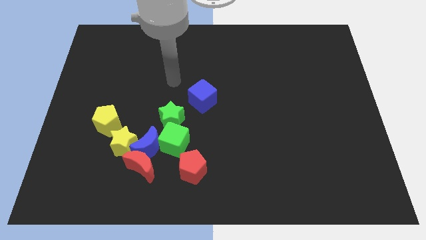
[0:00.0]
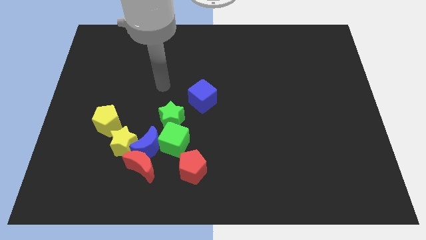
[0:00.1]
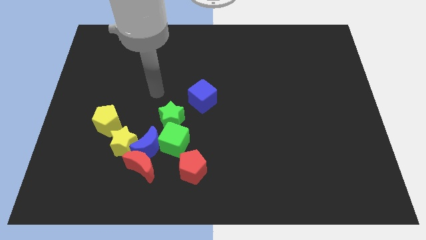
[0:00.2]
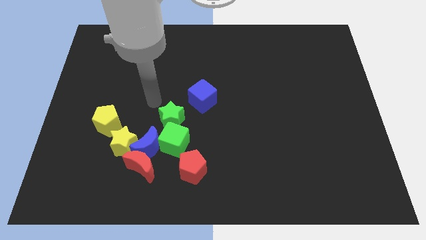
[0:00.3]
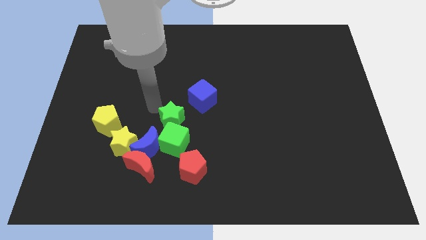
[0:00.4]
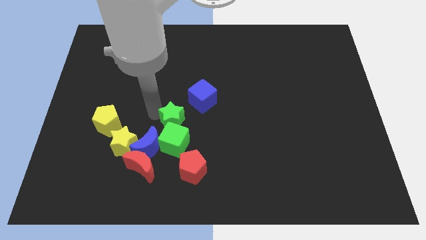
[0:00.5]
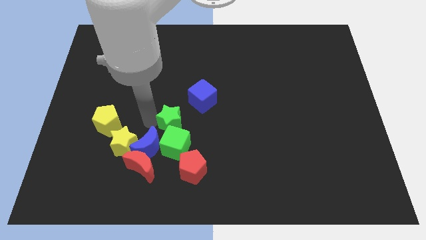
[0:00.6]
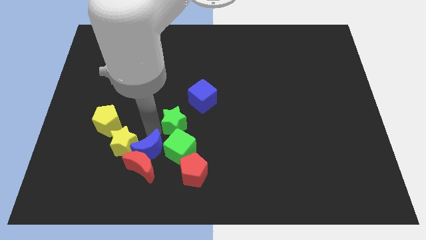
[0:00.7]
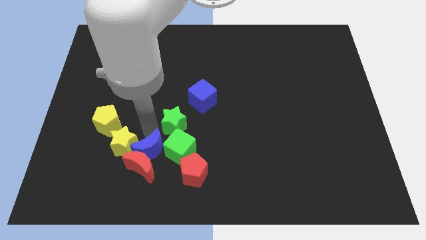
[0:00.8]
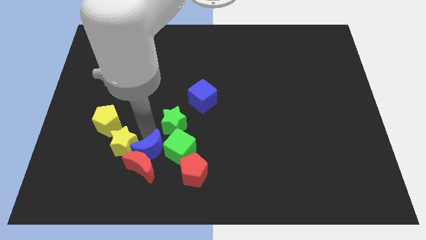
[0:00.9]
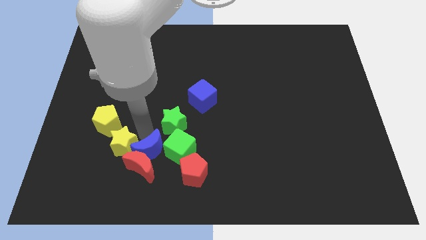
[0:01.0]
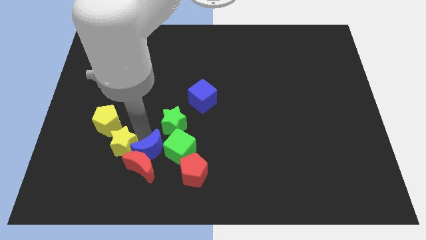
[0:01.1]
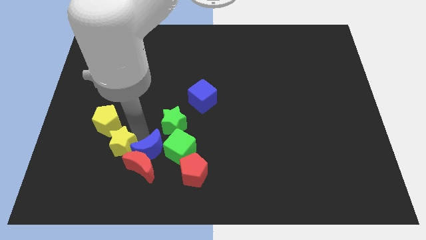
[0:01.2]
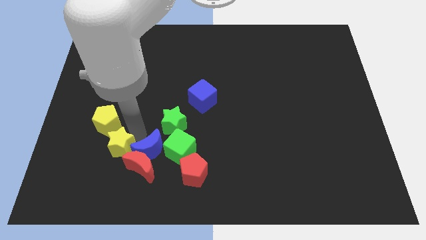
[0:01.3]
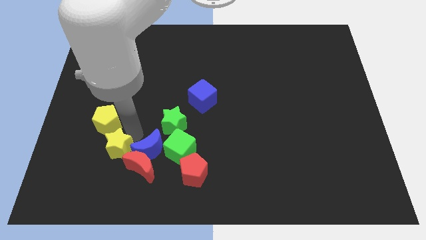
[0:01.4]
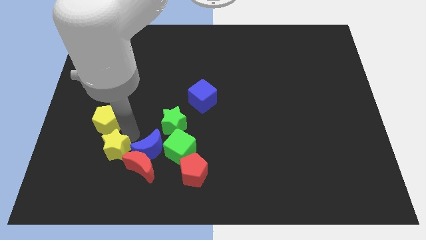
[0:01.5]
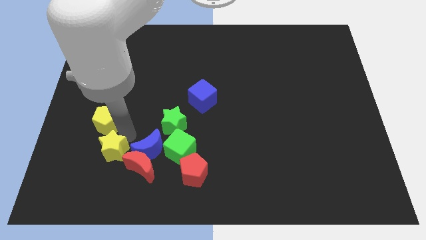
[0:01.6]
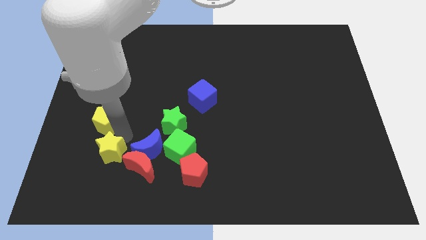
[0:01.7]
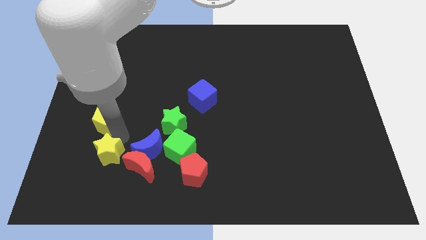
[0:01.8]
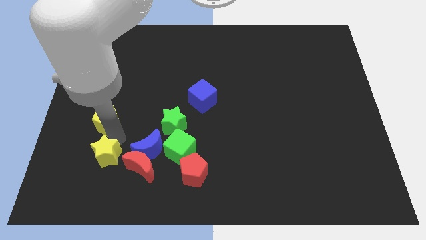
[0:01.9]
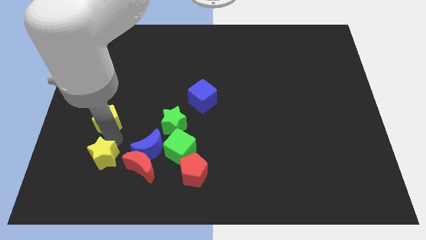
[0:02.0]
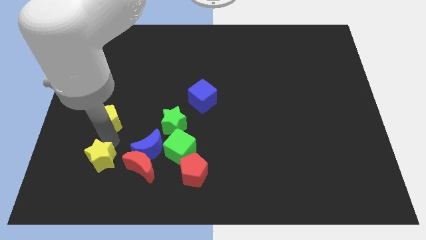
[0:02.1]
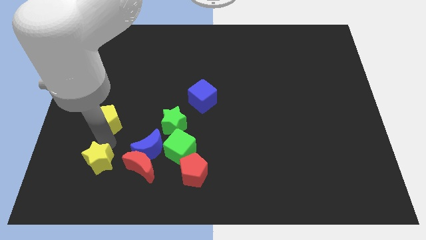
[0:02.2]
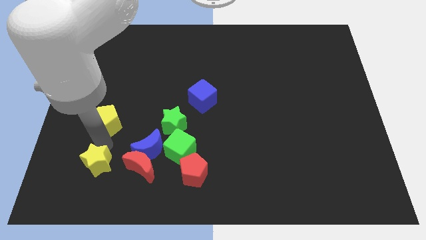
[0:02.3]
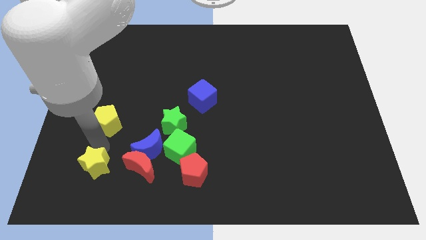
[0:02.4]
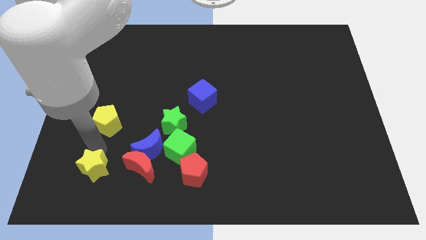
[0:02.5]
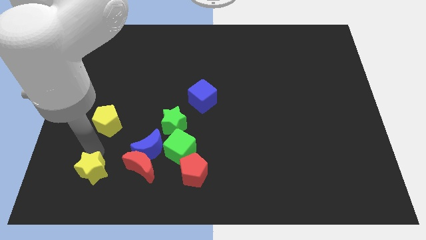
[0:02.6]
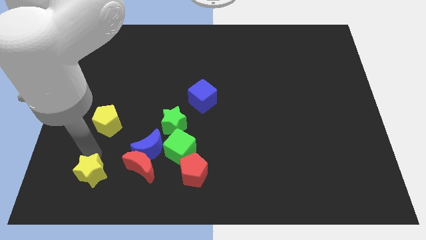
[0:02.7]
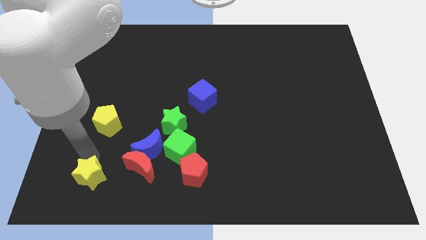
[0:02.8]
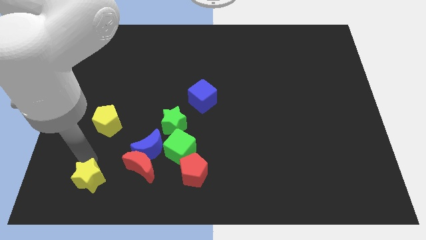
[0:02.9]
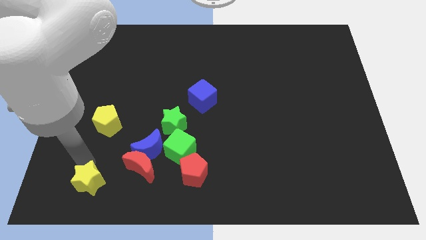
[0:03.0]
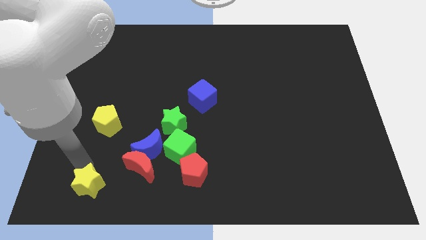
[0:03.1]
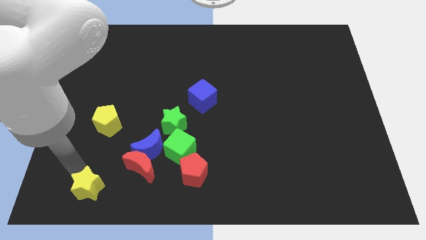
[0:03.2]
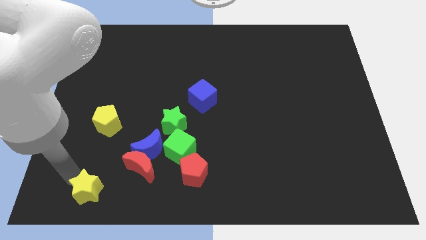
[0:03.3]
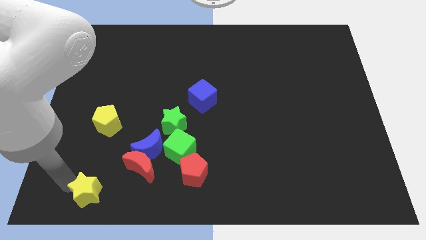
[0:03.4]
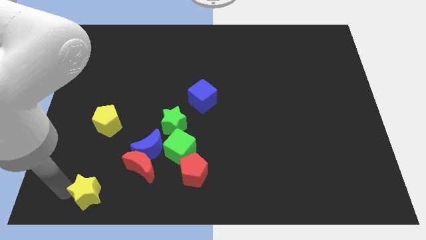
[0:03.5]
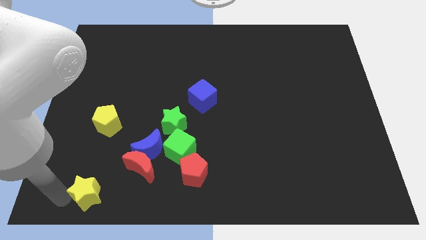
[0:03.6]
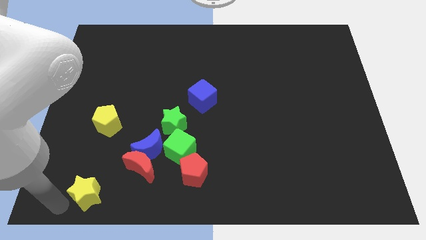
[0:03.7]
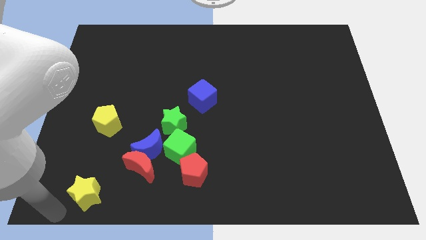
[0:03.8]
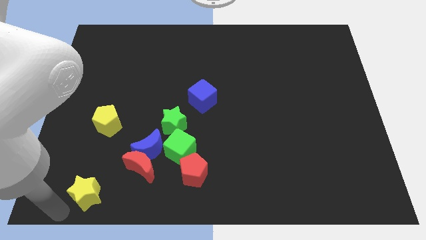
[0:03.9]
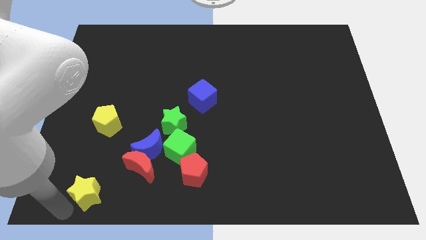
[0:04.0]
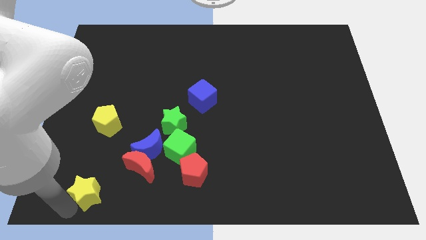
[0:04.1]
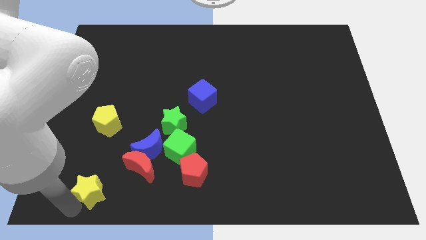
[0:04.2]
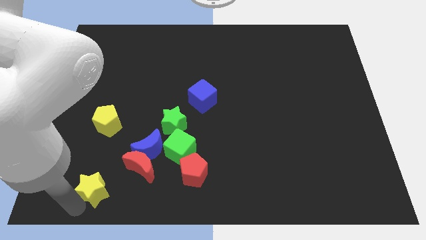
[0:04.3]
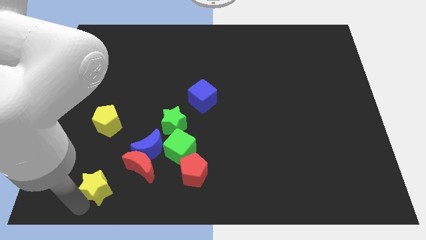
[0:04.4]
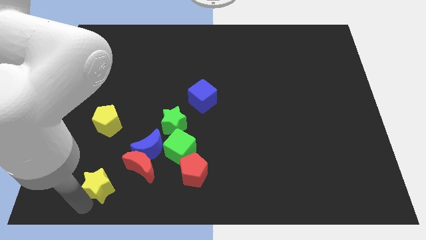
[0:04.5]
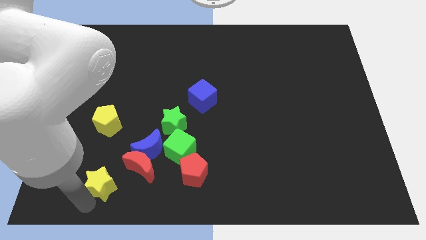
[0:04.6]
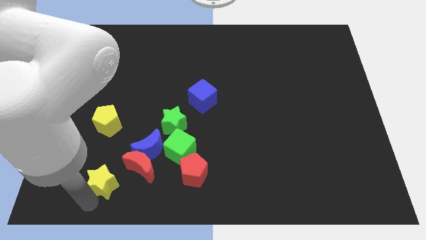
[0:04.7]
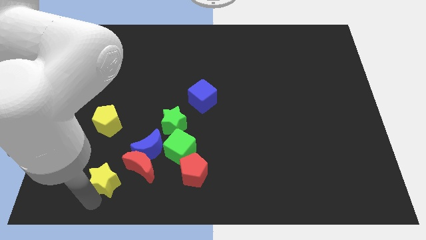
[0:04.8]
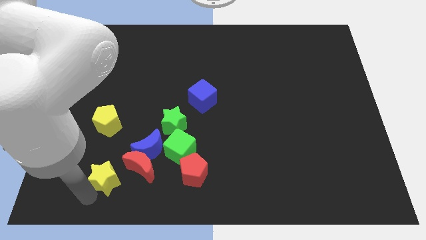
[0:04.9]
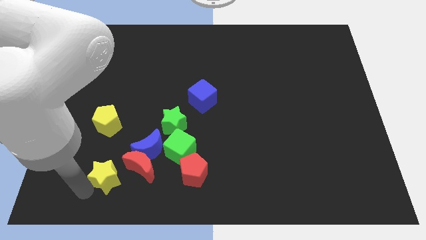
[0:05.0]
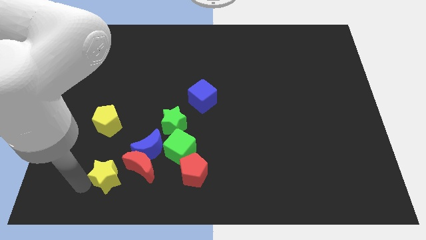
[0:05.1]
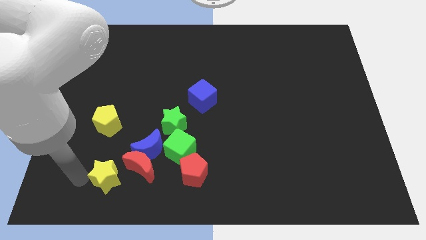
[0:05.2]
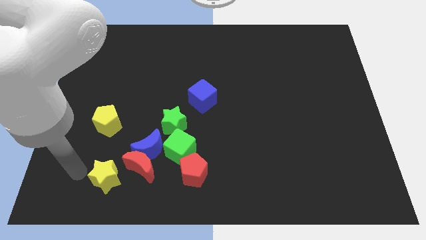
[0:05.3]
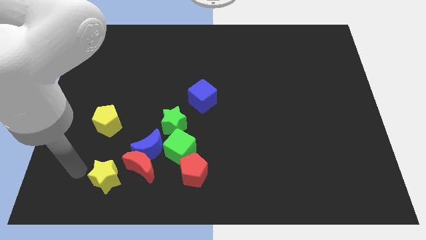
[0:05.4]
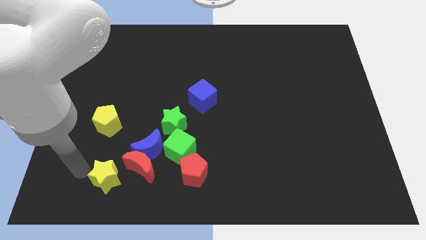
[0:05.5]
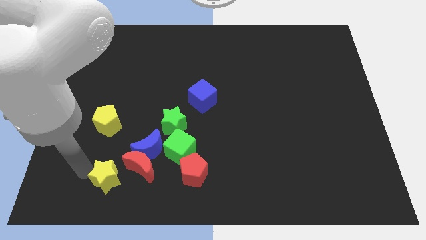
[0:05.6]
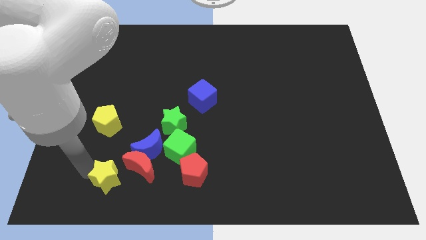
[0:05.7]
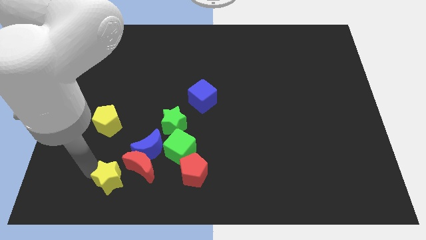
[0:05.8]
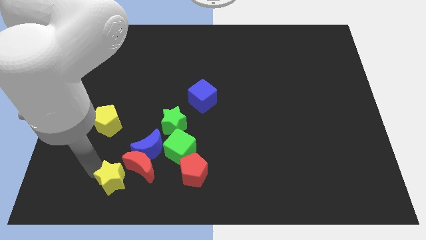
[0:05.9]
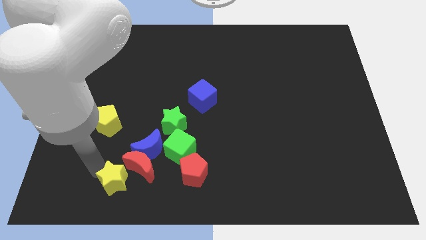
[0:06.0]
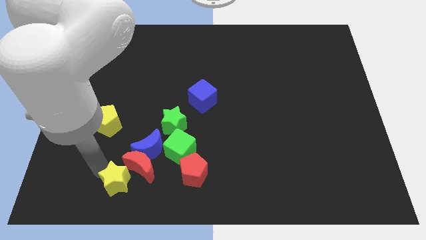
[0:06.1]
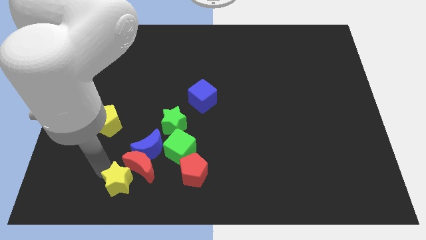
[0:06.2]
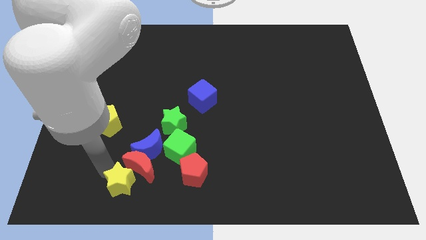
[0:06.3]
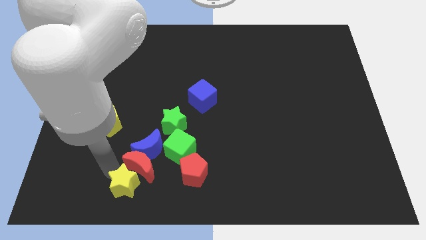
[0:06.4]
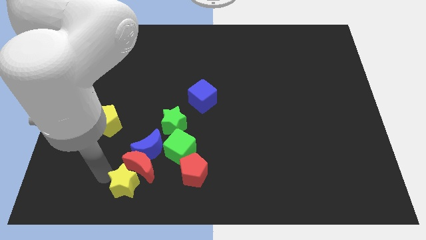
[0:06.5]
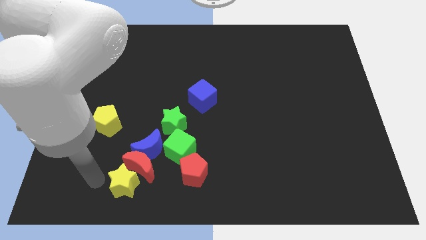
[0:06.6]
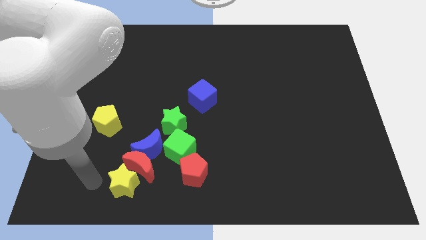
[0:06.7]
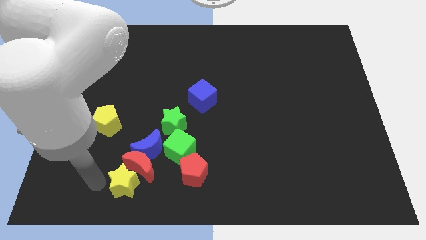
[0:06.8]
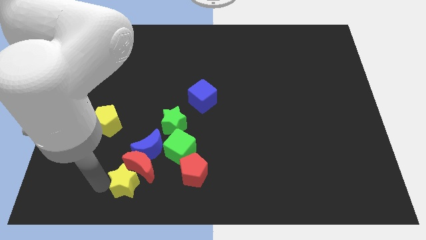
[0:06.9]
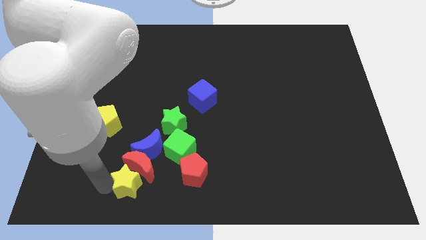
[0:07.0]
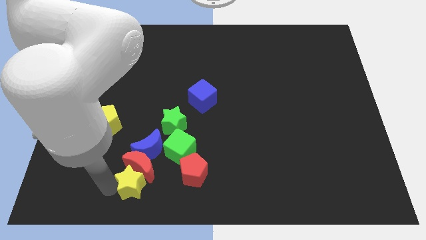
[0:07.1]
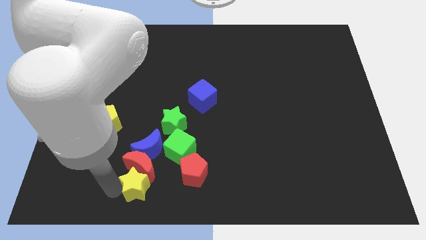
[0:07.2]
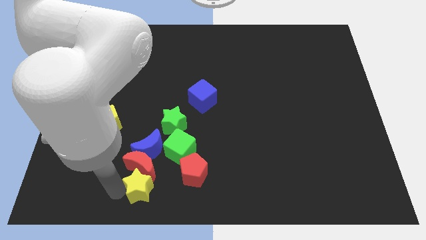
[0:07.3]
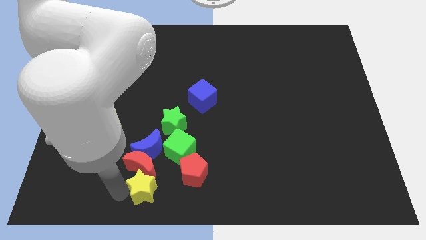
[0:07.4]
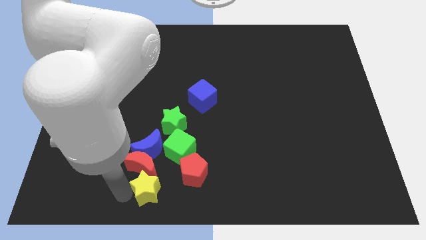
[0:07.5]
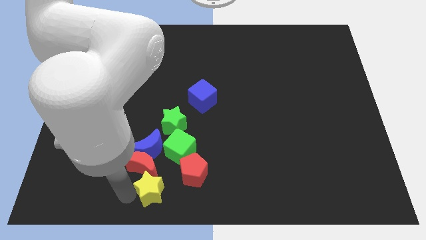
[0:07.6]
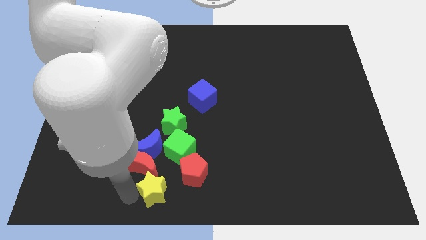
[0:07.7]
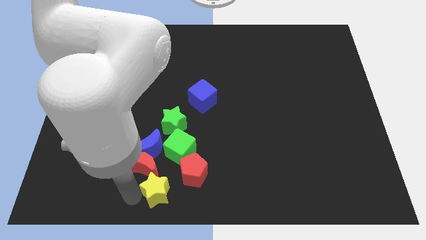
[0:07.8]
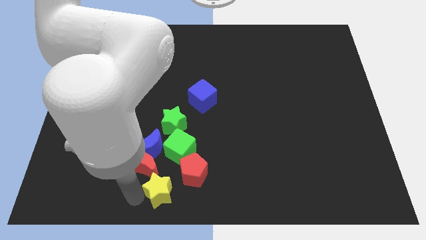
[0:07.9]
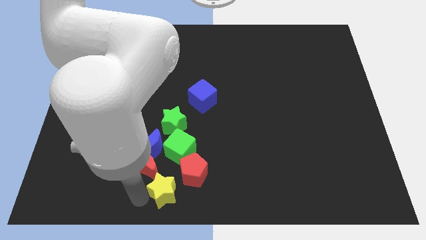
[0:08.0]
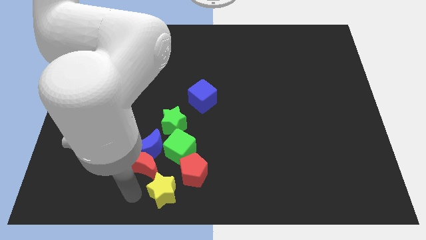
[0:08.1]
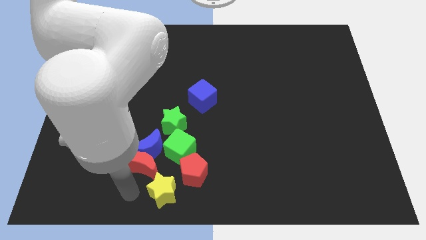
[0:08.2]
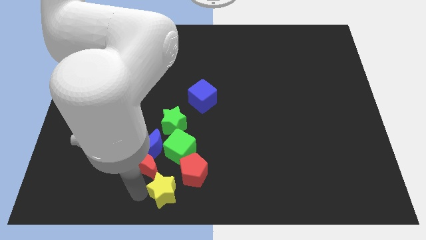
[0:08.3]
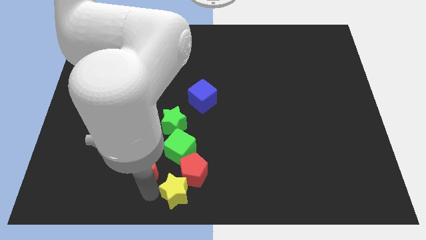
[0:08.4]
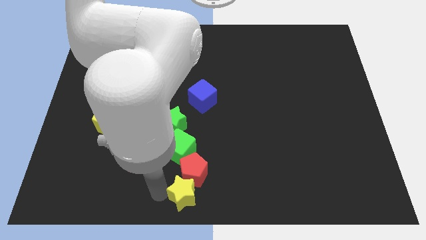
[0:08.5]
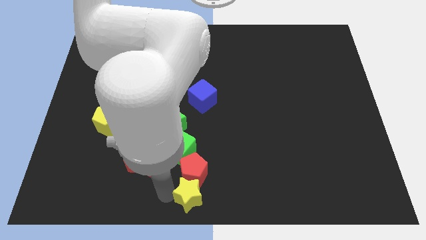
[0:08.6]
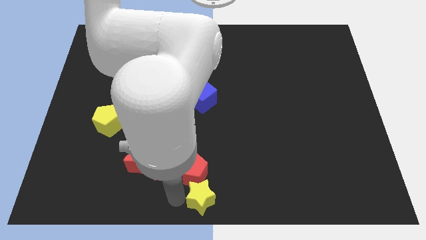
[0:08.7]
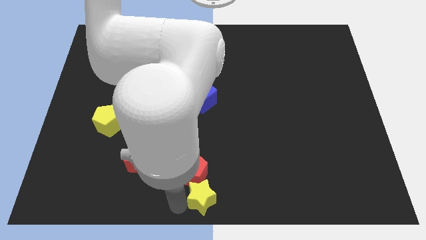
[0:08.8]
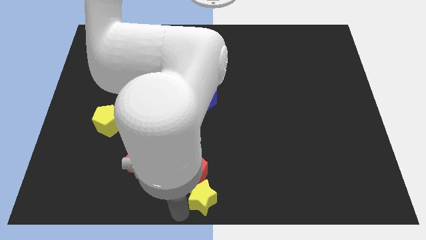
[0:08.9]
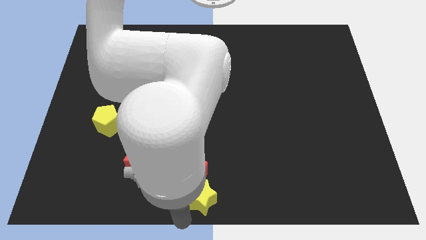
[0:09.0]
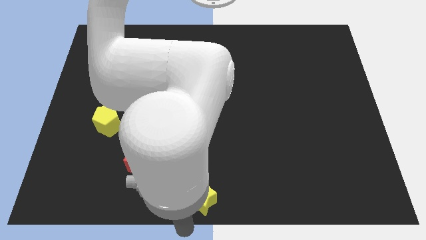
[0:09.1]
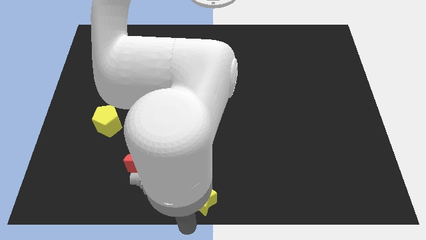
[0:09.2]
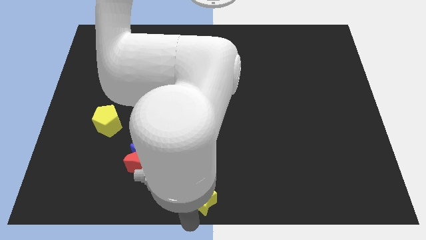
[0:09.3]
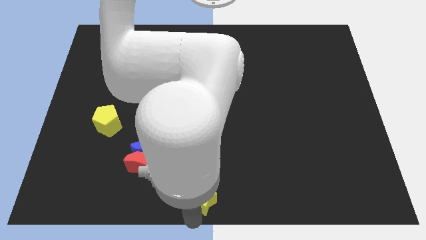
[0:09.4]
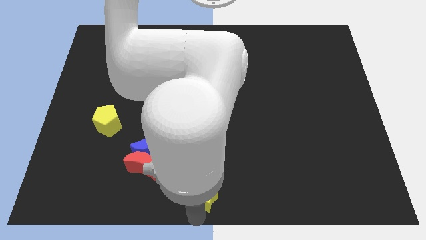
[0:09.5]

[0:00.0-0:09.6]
slide the yellow star a little right
